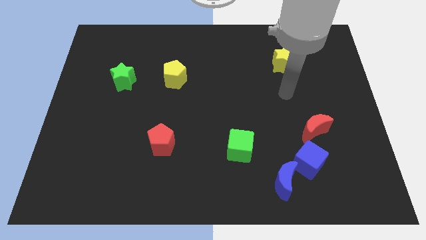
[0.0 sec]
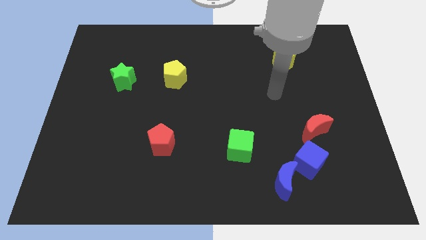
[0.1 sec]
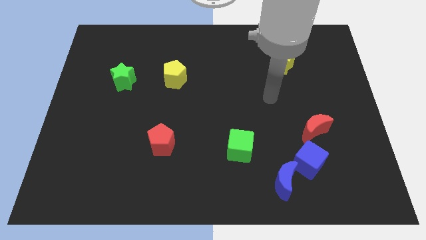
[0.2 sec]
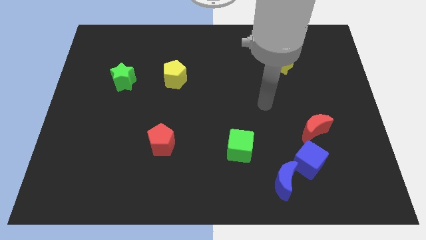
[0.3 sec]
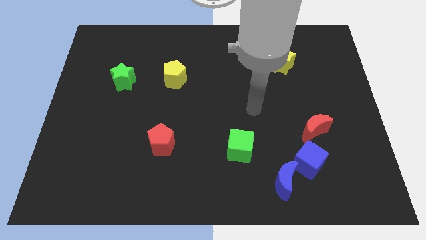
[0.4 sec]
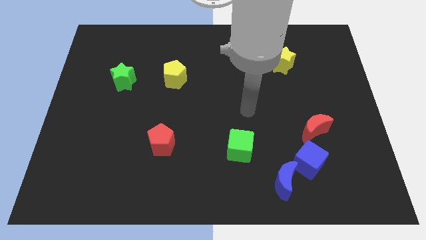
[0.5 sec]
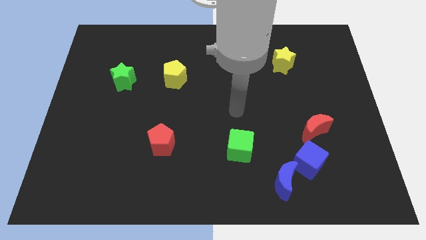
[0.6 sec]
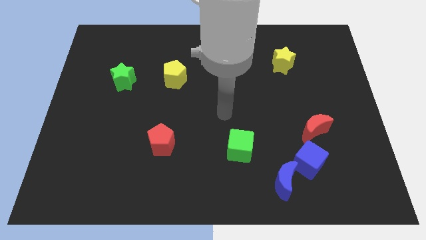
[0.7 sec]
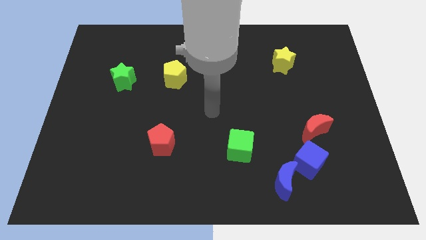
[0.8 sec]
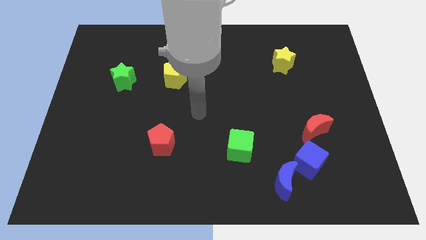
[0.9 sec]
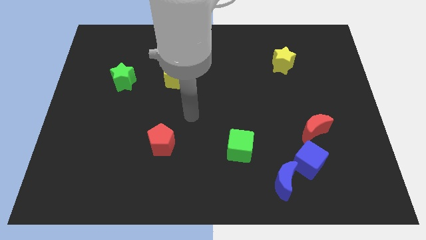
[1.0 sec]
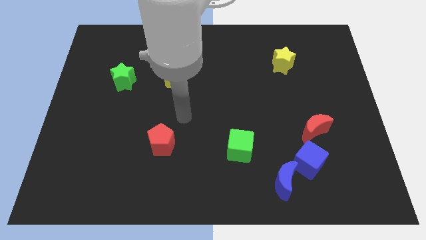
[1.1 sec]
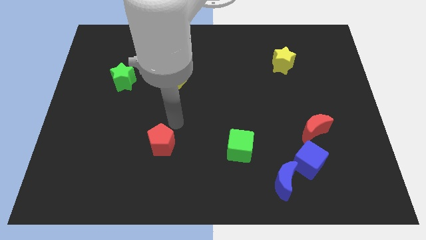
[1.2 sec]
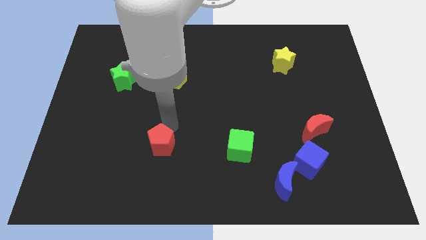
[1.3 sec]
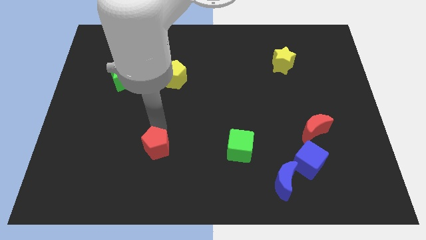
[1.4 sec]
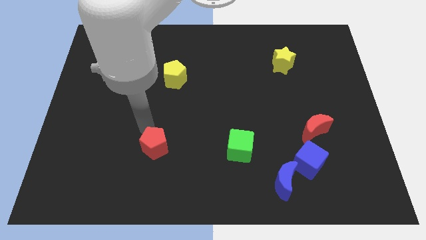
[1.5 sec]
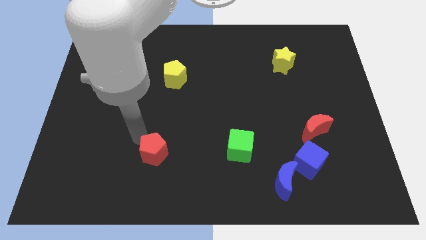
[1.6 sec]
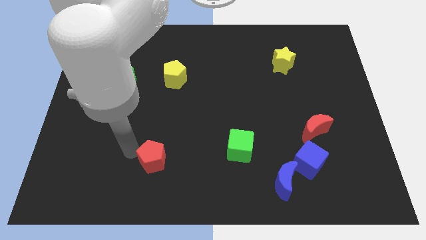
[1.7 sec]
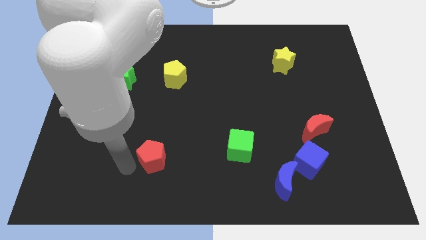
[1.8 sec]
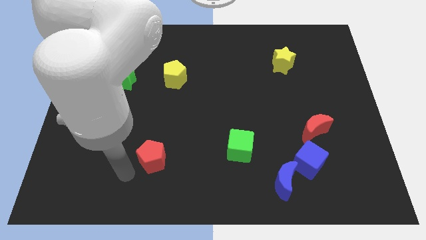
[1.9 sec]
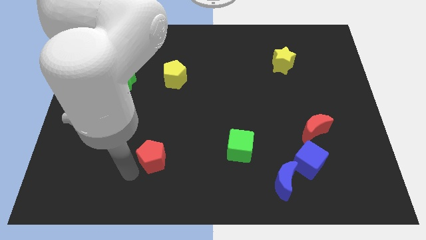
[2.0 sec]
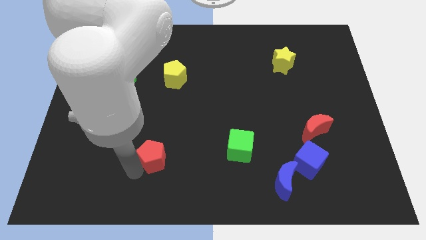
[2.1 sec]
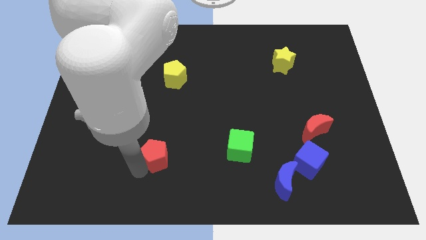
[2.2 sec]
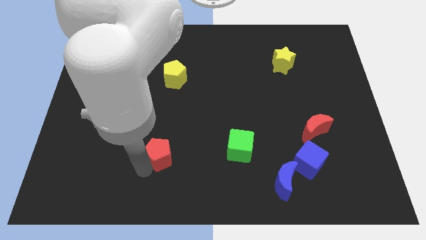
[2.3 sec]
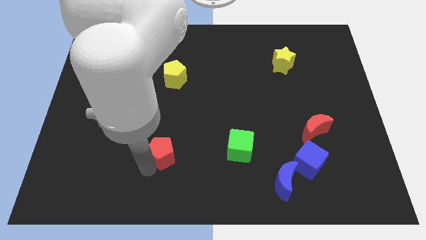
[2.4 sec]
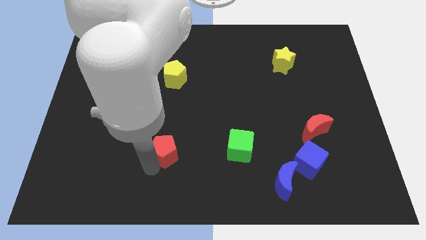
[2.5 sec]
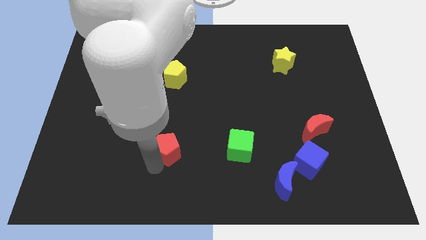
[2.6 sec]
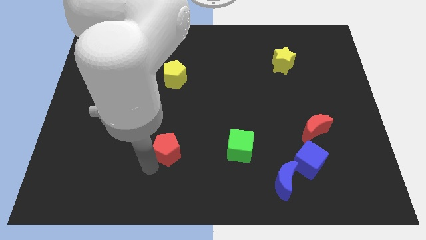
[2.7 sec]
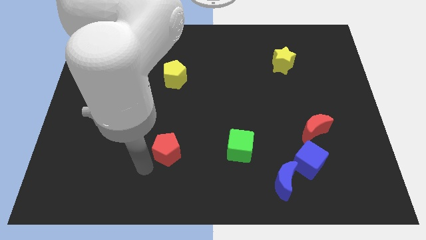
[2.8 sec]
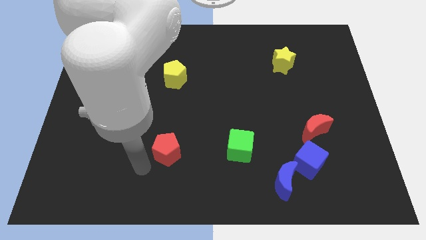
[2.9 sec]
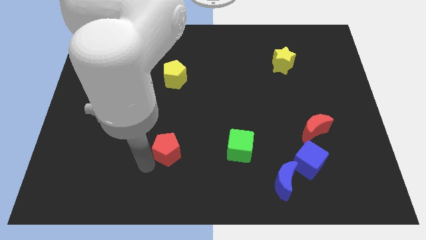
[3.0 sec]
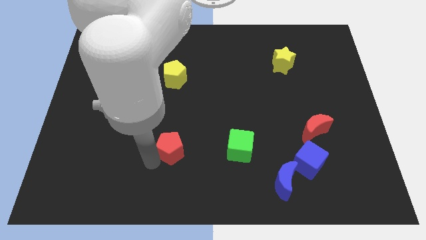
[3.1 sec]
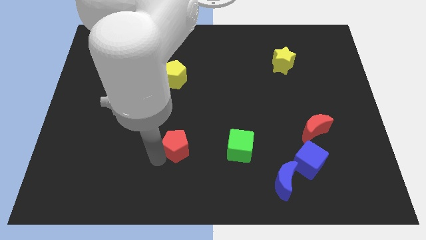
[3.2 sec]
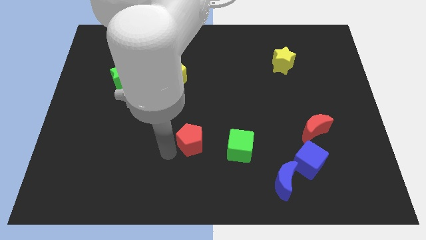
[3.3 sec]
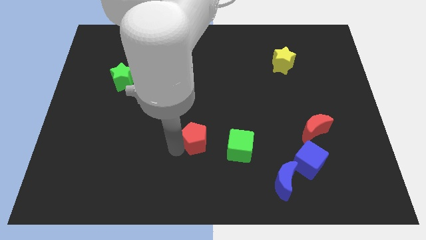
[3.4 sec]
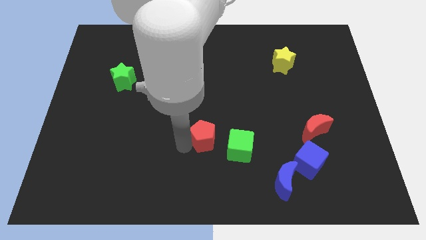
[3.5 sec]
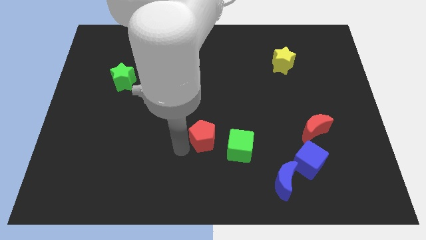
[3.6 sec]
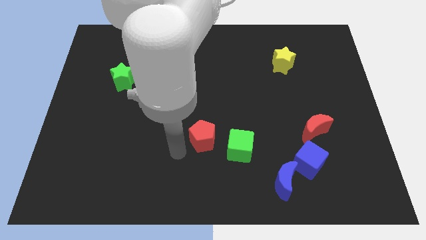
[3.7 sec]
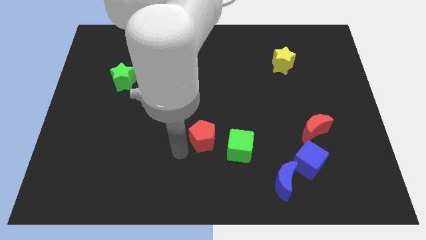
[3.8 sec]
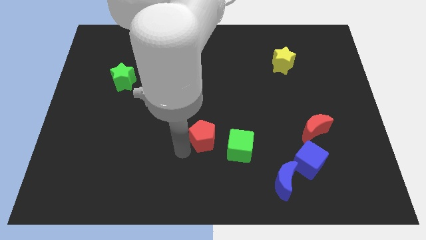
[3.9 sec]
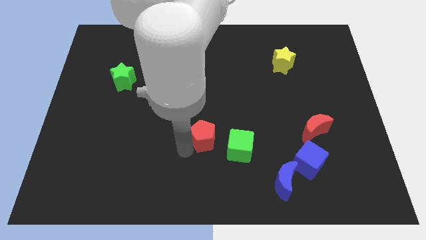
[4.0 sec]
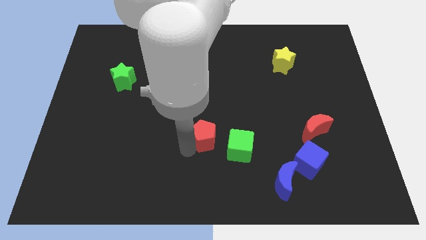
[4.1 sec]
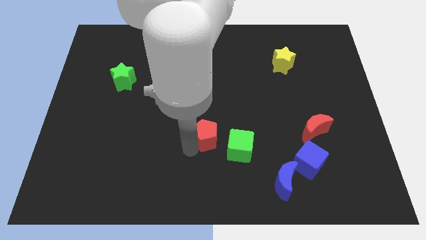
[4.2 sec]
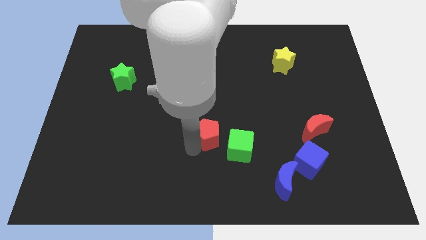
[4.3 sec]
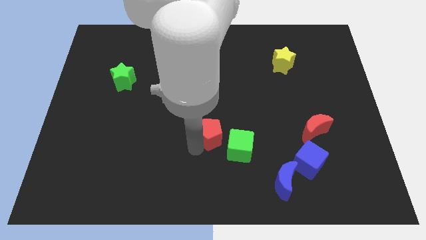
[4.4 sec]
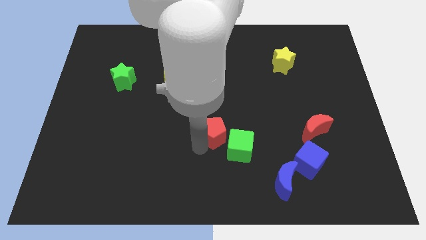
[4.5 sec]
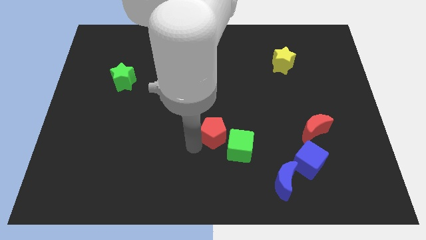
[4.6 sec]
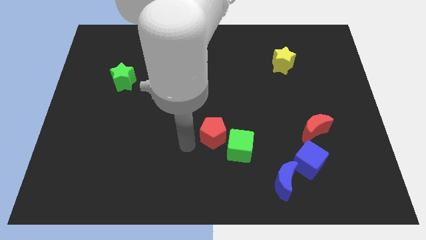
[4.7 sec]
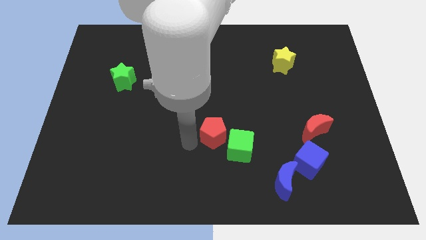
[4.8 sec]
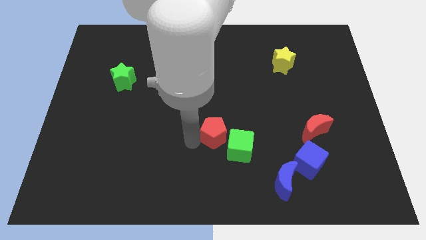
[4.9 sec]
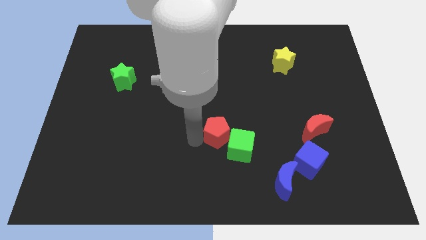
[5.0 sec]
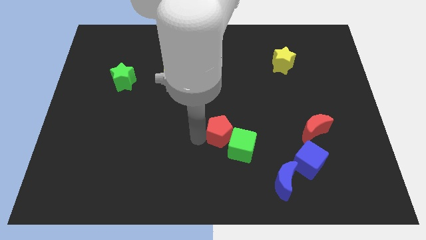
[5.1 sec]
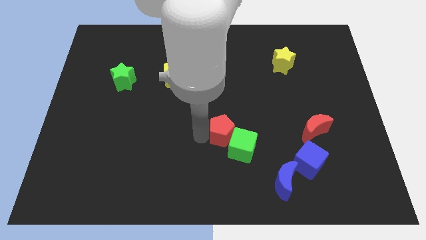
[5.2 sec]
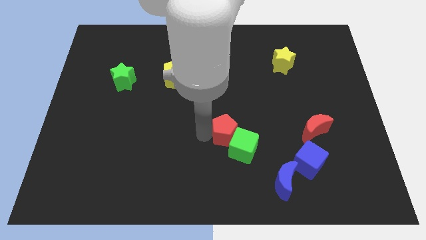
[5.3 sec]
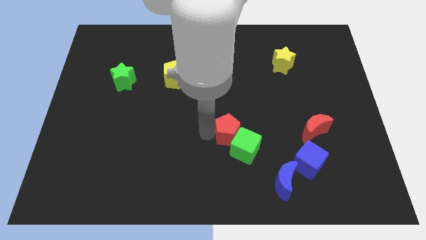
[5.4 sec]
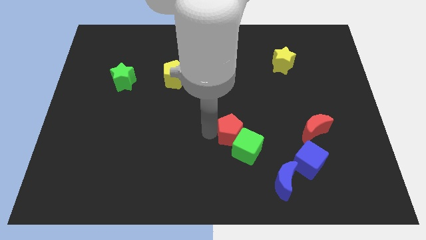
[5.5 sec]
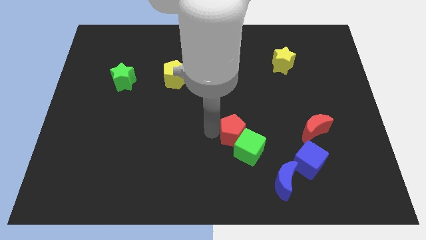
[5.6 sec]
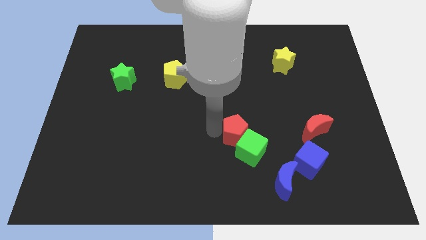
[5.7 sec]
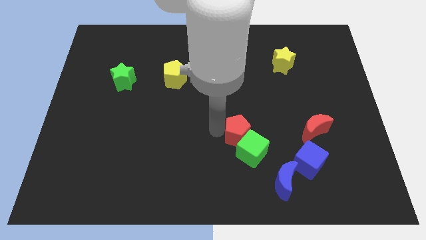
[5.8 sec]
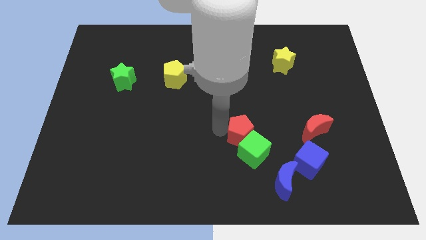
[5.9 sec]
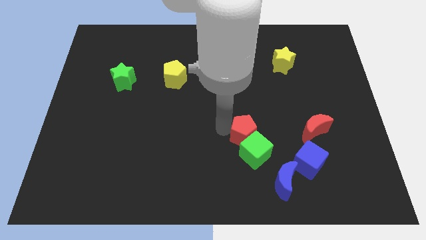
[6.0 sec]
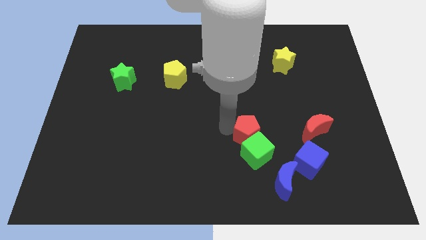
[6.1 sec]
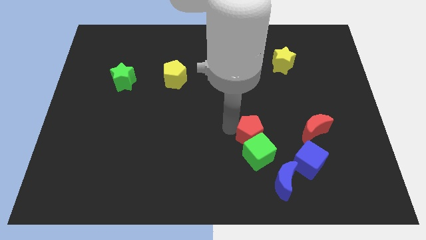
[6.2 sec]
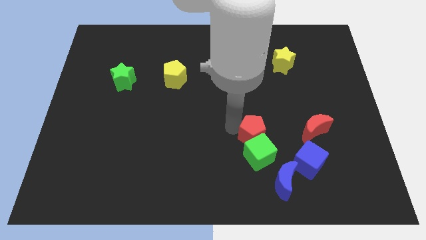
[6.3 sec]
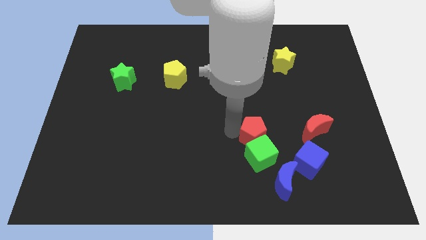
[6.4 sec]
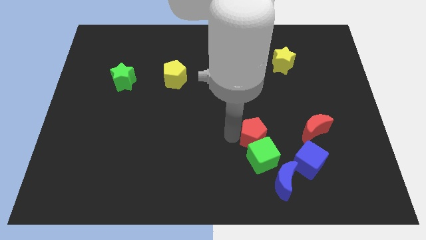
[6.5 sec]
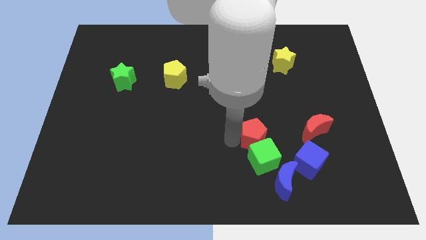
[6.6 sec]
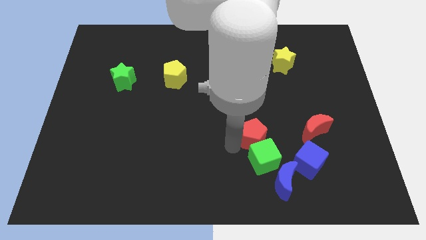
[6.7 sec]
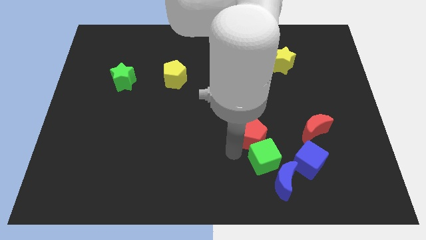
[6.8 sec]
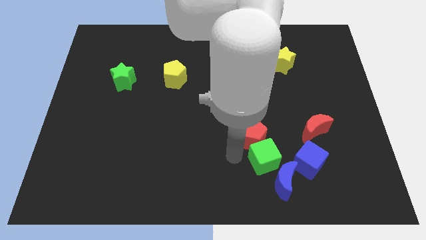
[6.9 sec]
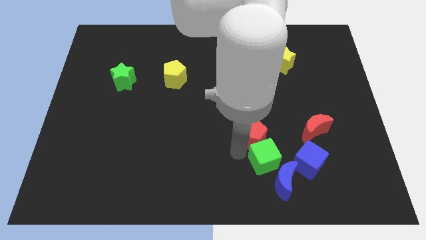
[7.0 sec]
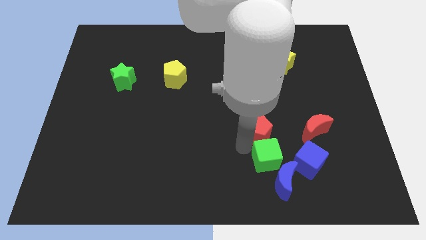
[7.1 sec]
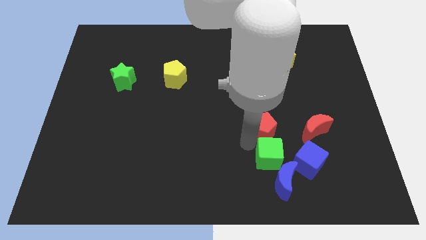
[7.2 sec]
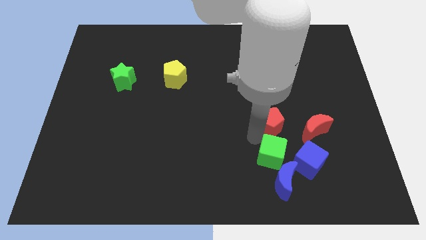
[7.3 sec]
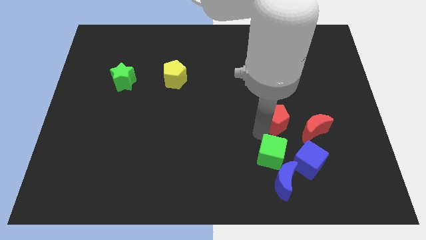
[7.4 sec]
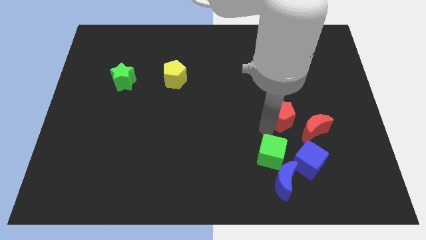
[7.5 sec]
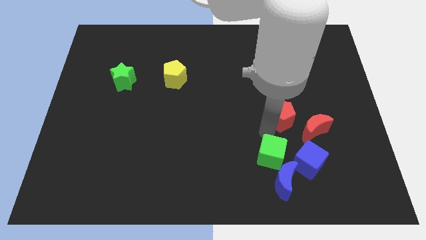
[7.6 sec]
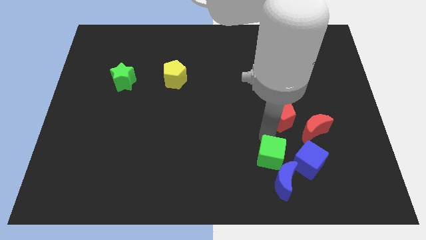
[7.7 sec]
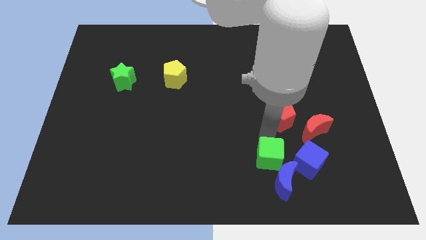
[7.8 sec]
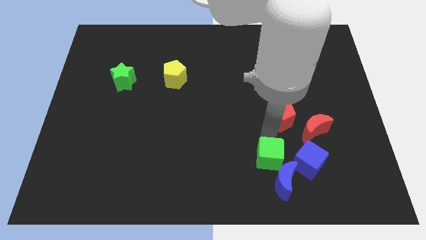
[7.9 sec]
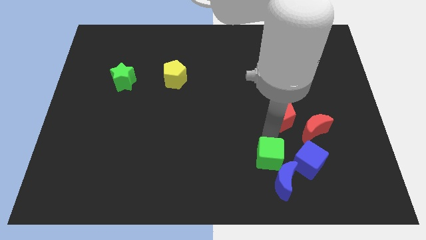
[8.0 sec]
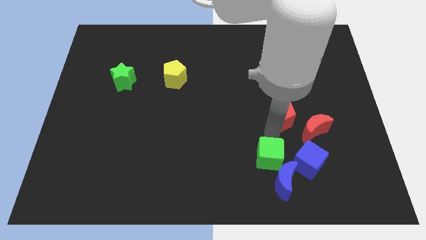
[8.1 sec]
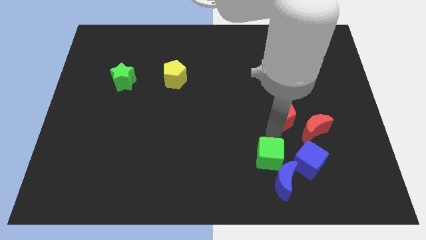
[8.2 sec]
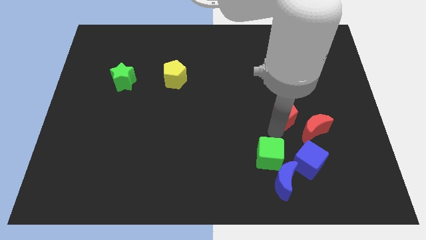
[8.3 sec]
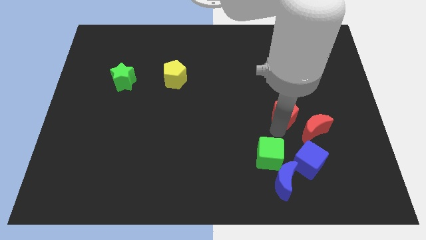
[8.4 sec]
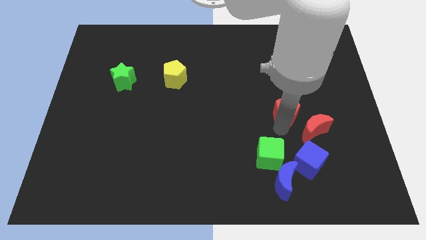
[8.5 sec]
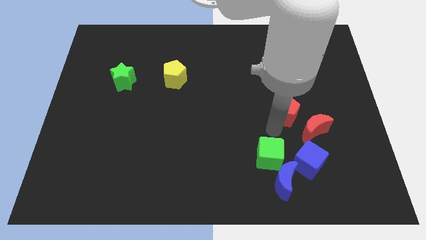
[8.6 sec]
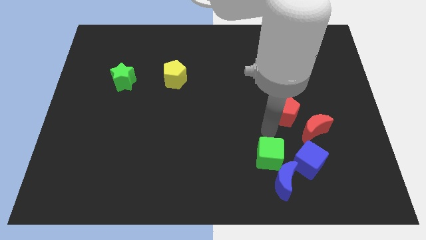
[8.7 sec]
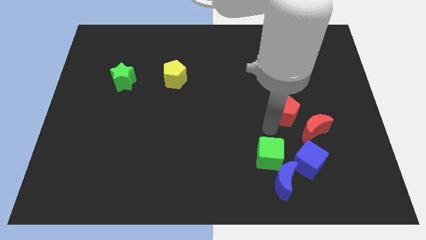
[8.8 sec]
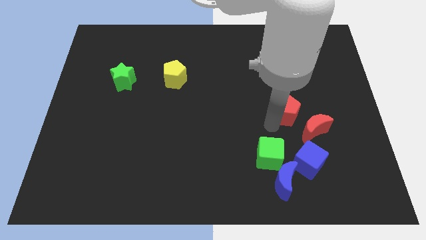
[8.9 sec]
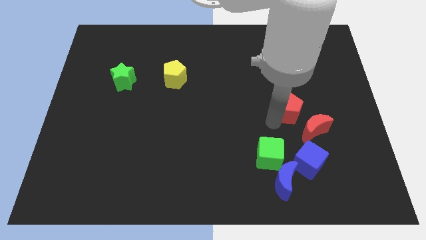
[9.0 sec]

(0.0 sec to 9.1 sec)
move the red pentagon to the top of the red moon
